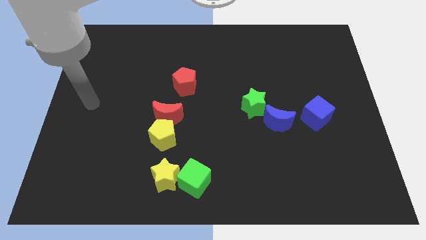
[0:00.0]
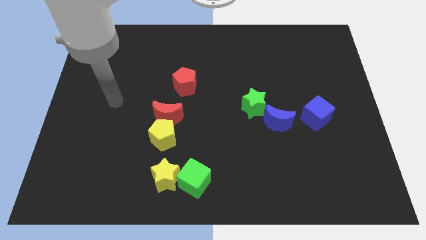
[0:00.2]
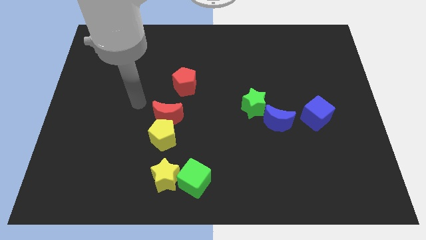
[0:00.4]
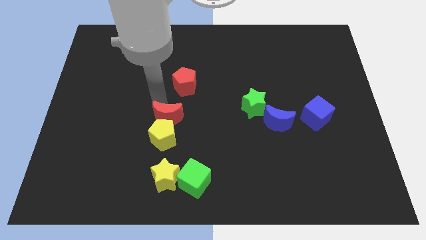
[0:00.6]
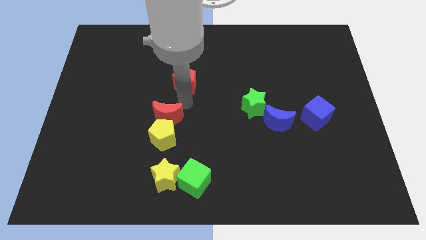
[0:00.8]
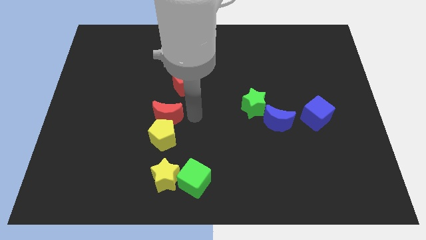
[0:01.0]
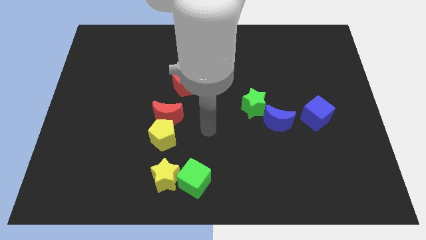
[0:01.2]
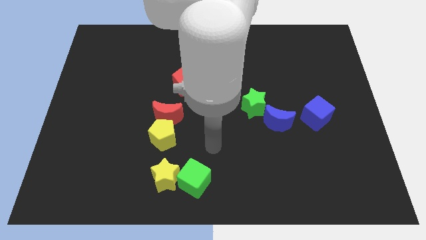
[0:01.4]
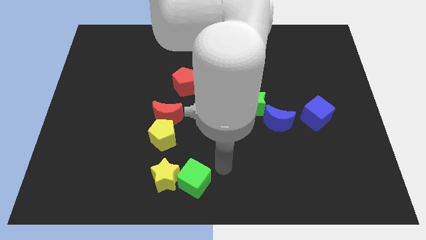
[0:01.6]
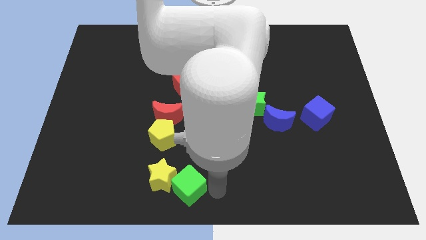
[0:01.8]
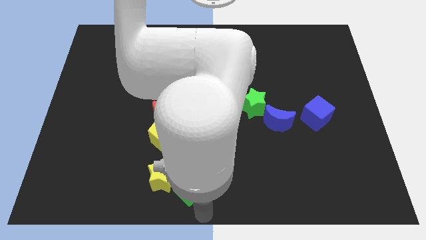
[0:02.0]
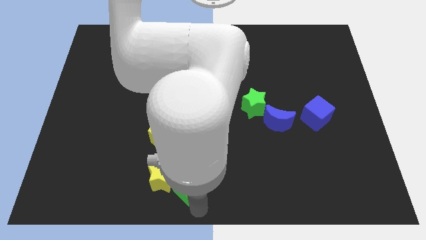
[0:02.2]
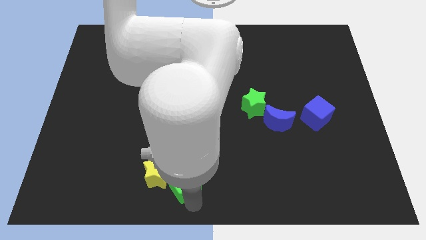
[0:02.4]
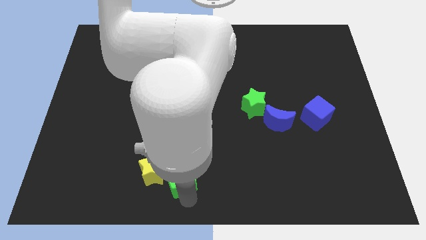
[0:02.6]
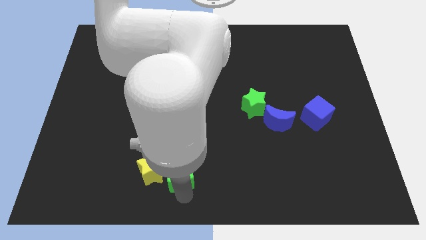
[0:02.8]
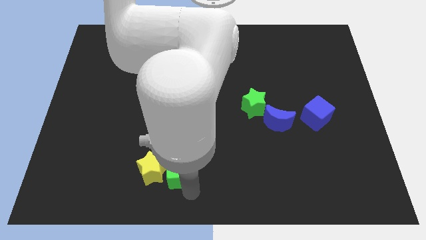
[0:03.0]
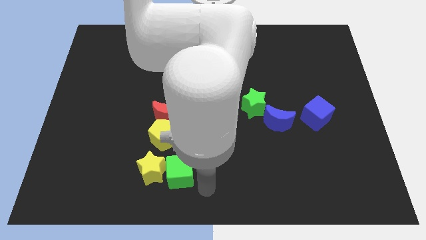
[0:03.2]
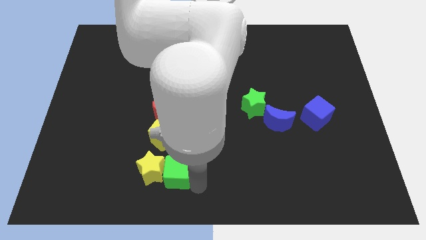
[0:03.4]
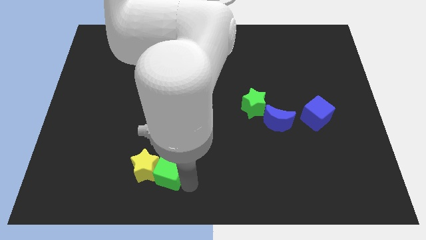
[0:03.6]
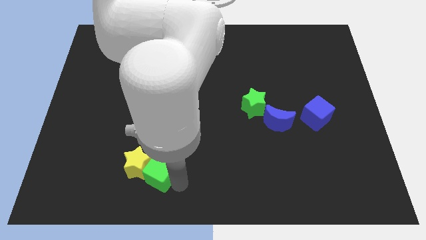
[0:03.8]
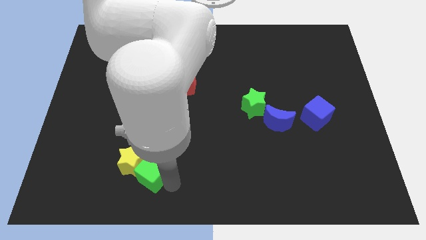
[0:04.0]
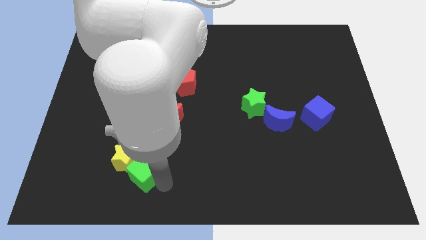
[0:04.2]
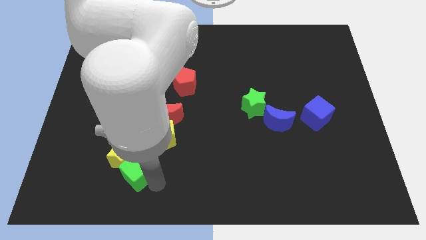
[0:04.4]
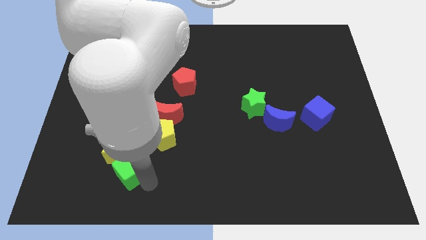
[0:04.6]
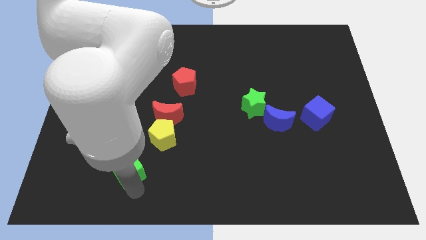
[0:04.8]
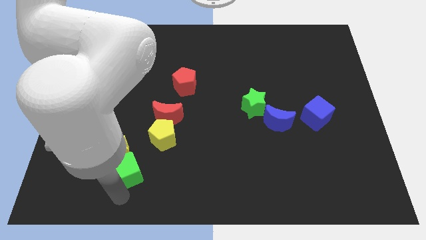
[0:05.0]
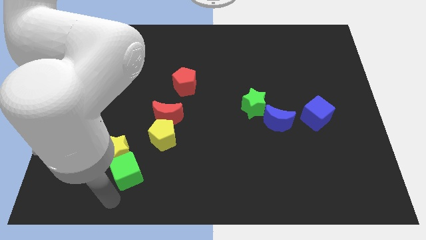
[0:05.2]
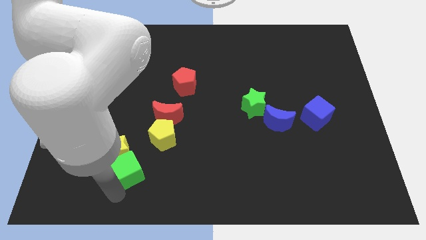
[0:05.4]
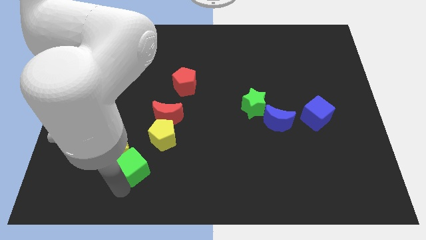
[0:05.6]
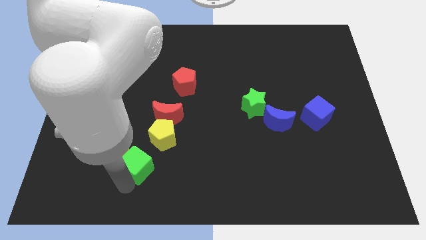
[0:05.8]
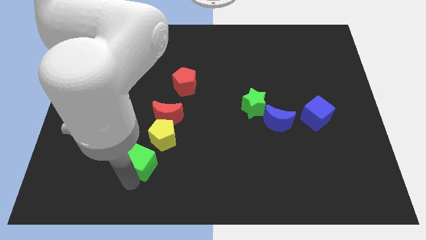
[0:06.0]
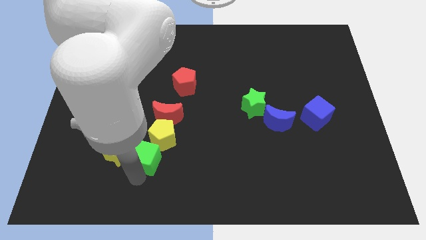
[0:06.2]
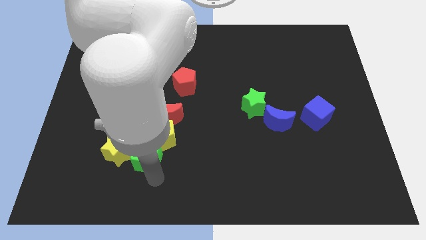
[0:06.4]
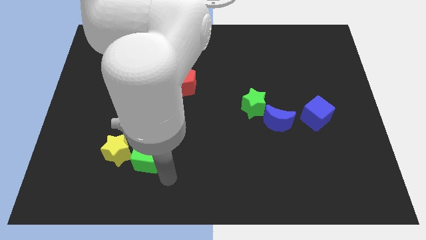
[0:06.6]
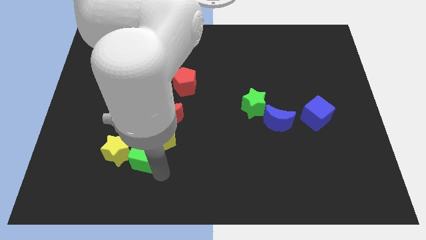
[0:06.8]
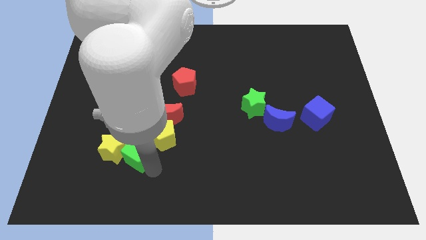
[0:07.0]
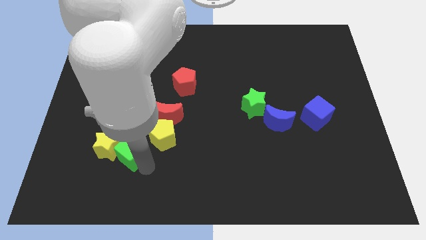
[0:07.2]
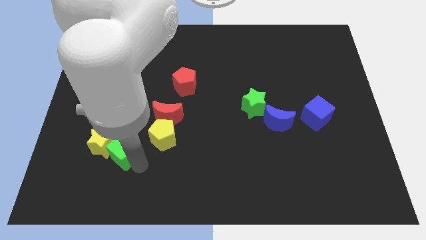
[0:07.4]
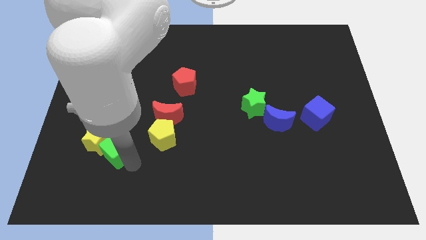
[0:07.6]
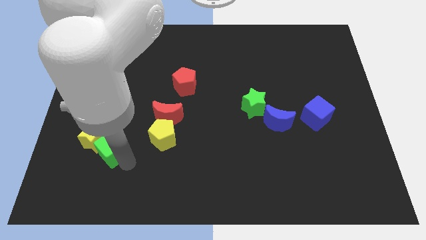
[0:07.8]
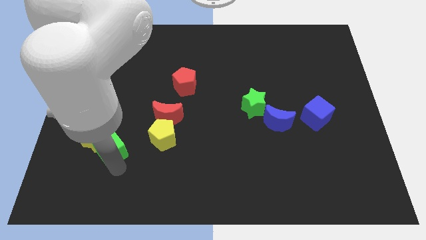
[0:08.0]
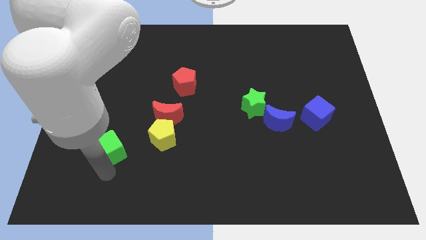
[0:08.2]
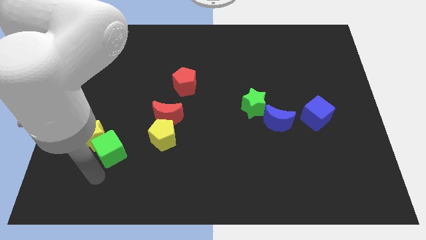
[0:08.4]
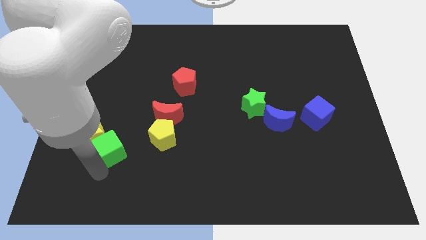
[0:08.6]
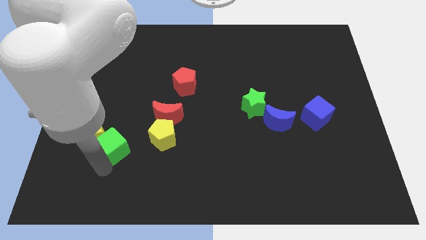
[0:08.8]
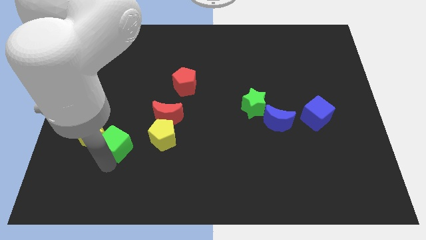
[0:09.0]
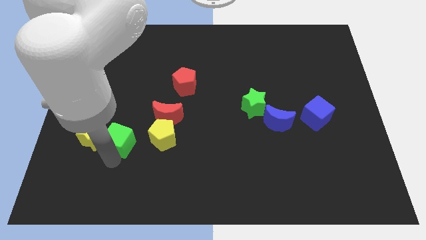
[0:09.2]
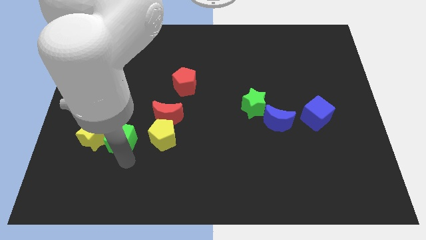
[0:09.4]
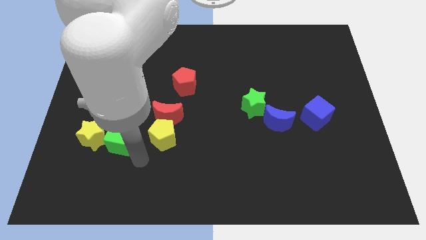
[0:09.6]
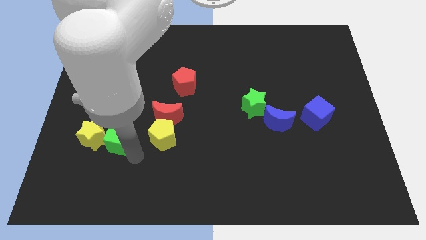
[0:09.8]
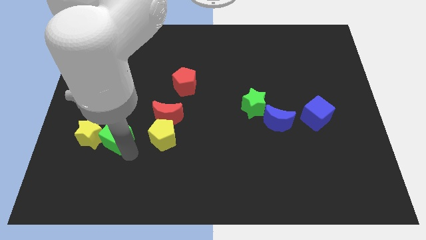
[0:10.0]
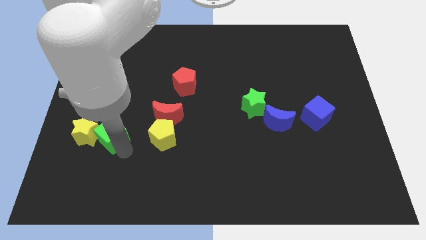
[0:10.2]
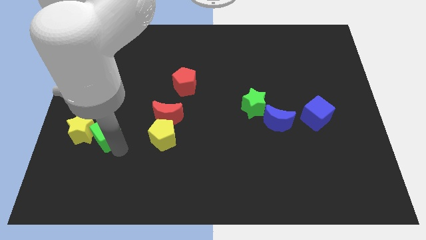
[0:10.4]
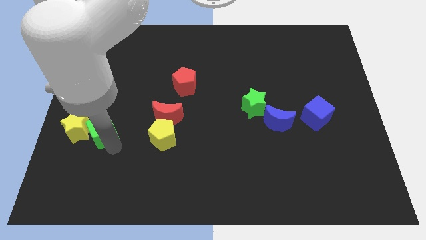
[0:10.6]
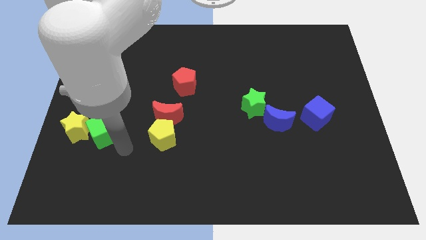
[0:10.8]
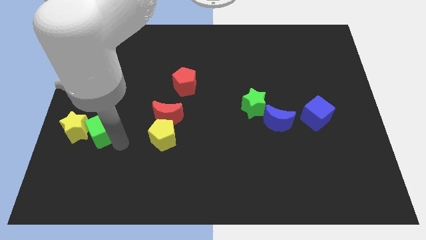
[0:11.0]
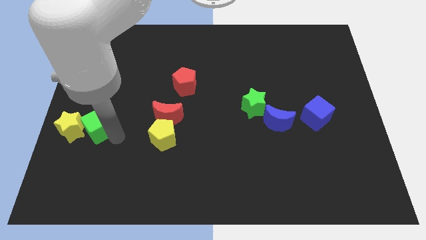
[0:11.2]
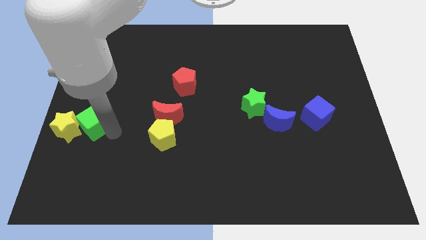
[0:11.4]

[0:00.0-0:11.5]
put the green cube to the center left

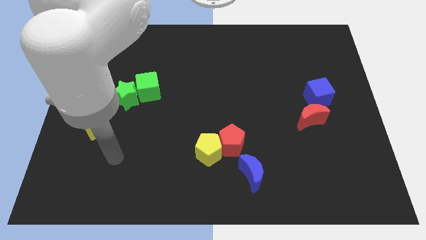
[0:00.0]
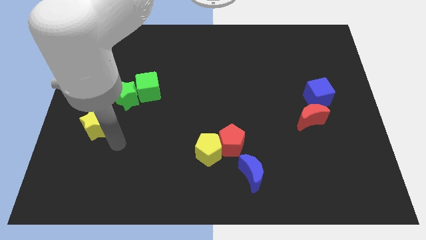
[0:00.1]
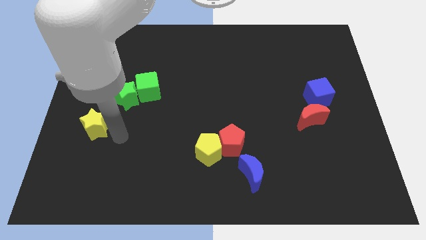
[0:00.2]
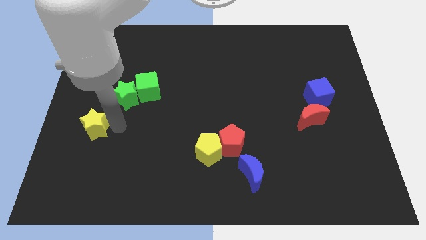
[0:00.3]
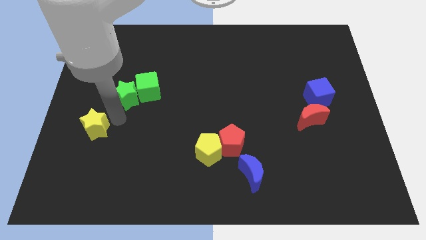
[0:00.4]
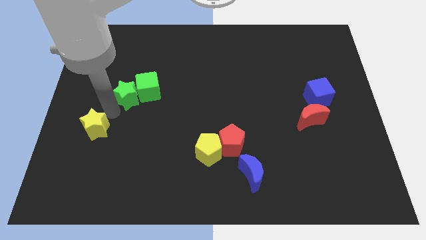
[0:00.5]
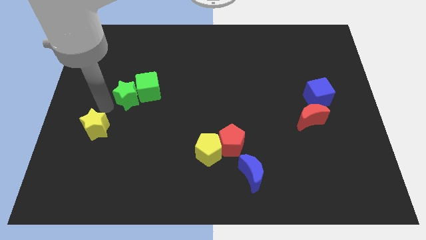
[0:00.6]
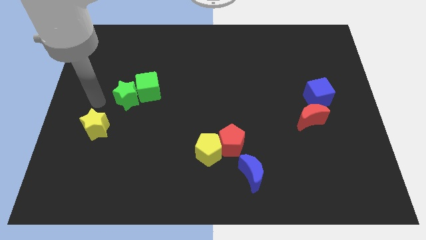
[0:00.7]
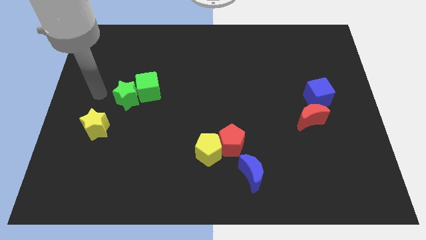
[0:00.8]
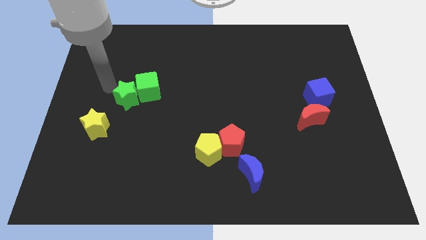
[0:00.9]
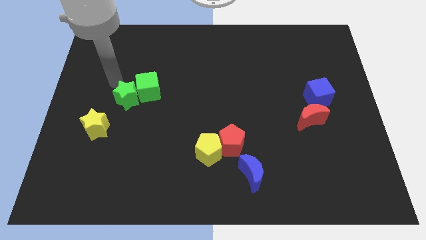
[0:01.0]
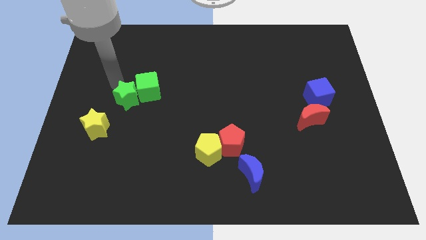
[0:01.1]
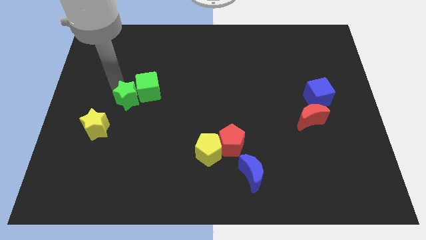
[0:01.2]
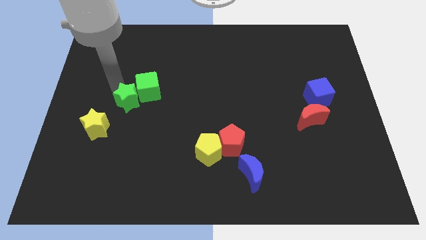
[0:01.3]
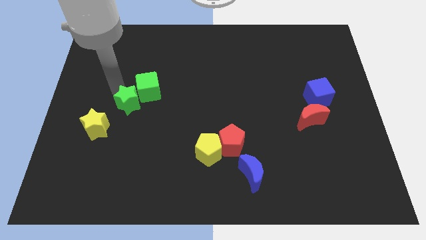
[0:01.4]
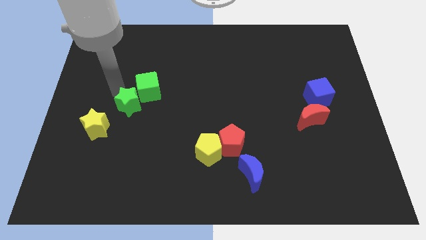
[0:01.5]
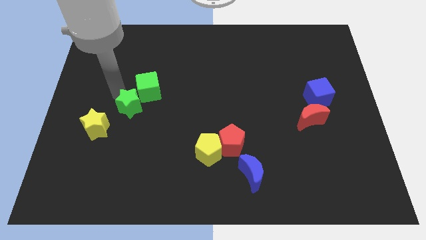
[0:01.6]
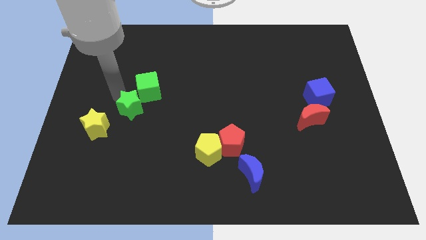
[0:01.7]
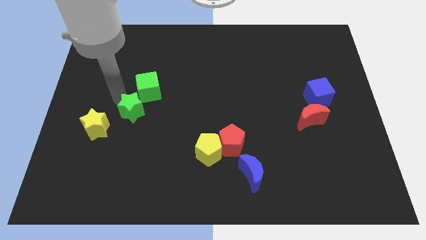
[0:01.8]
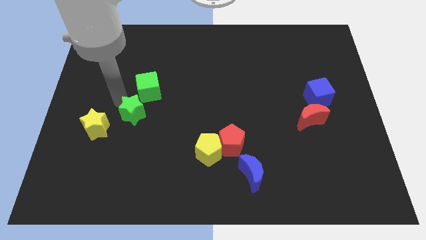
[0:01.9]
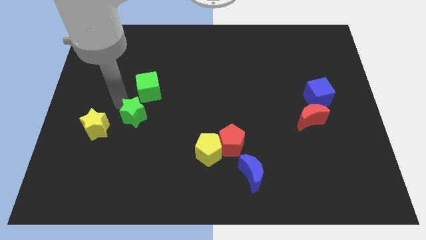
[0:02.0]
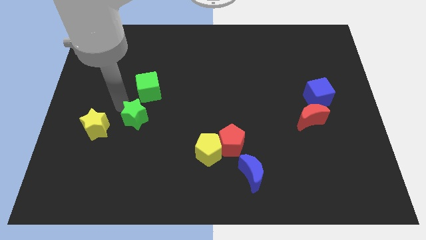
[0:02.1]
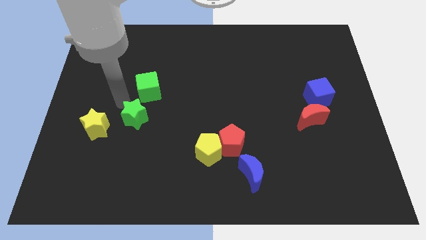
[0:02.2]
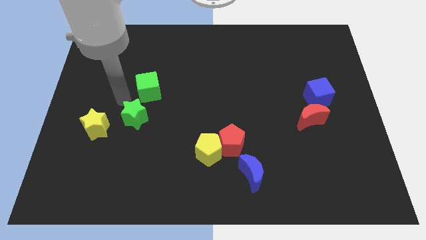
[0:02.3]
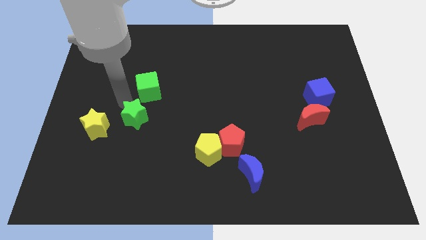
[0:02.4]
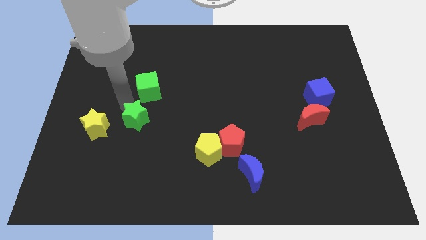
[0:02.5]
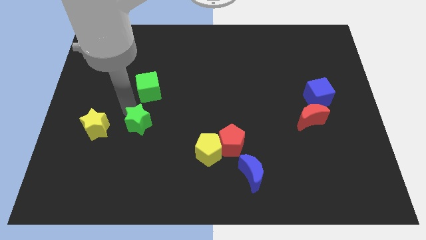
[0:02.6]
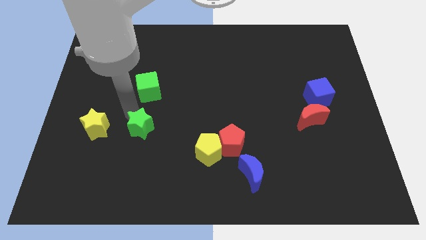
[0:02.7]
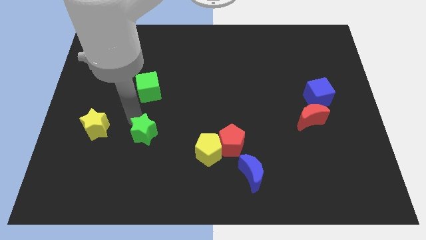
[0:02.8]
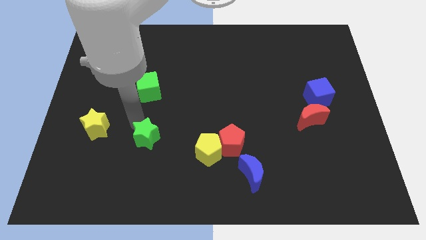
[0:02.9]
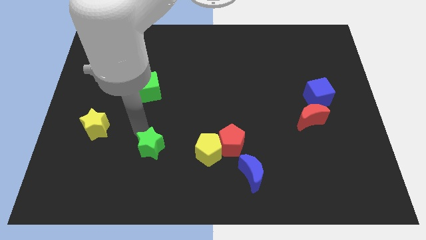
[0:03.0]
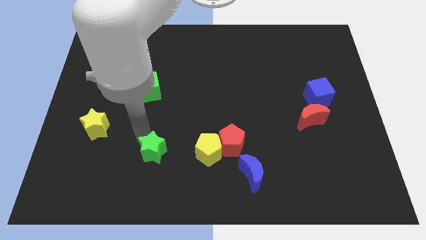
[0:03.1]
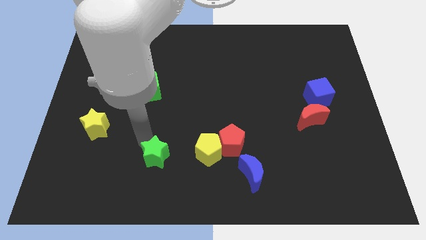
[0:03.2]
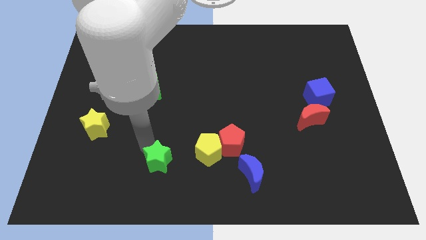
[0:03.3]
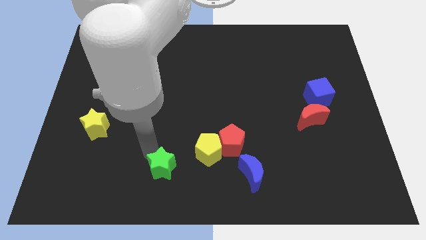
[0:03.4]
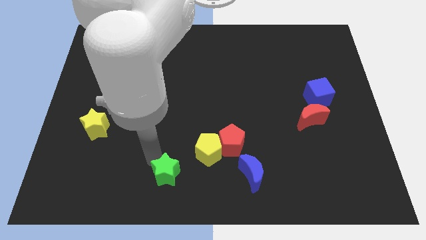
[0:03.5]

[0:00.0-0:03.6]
push the green star to the bottom
